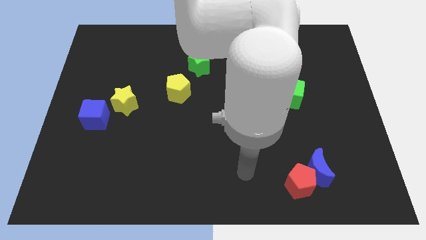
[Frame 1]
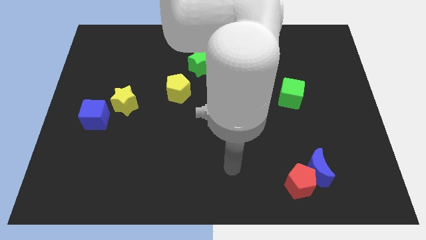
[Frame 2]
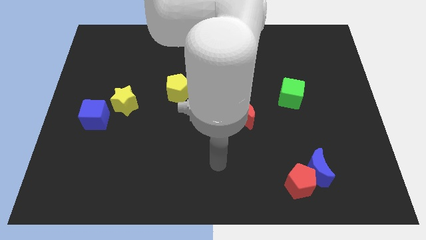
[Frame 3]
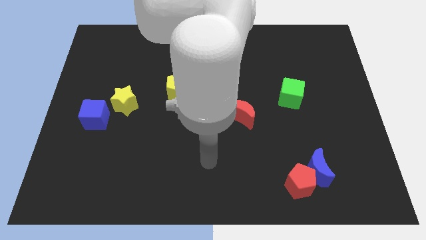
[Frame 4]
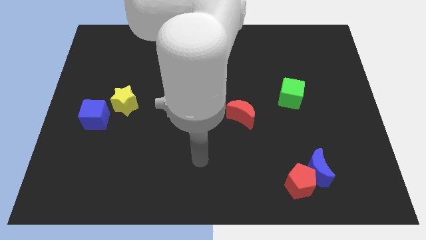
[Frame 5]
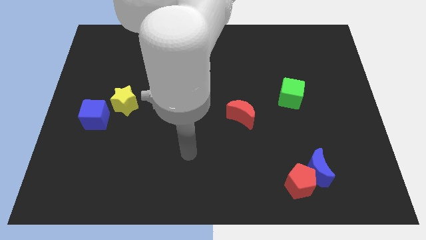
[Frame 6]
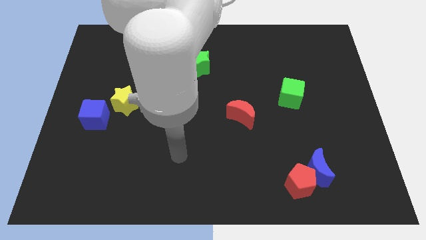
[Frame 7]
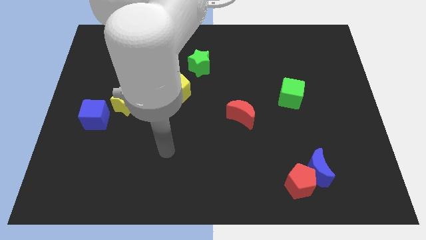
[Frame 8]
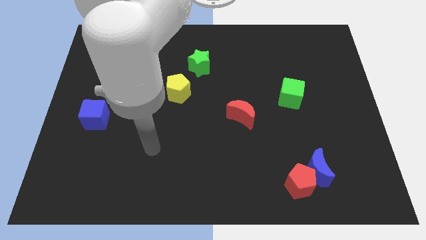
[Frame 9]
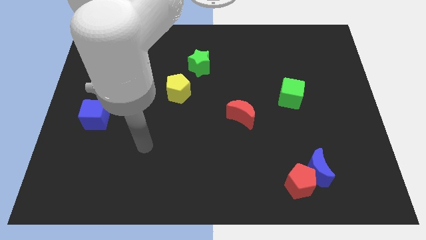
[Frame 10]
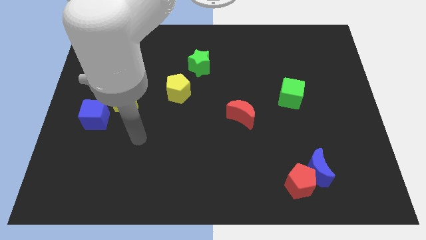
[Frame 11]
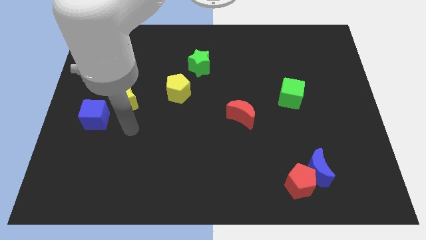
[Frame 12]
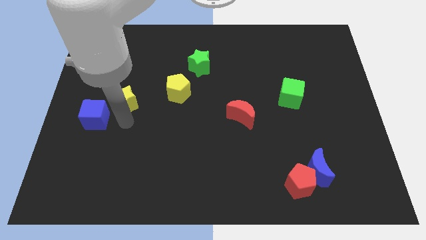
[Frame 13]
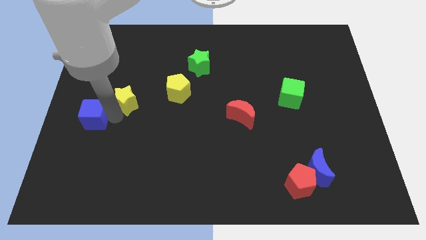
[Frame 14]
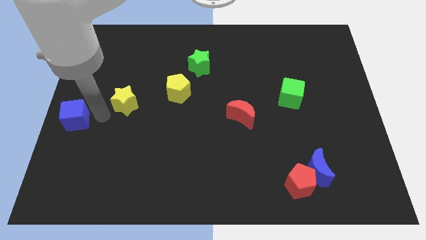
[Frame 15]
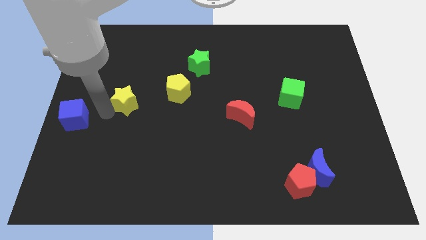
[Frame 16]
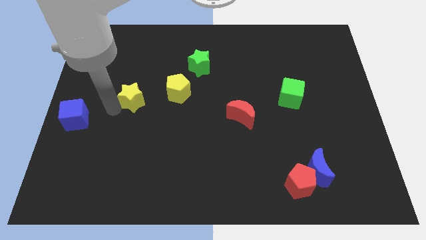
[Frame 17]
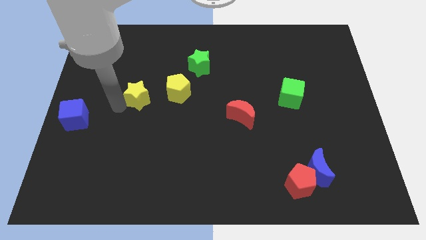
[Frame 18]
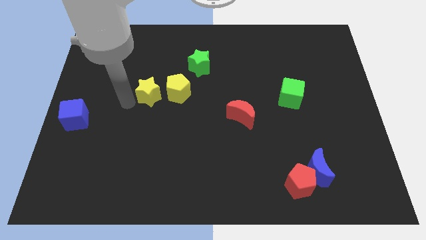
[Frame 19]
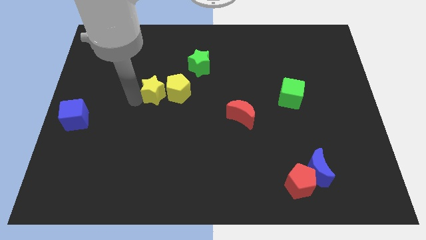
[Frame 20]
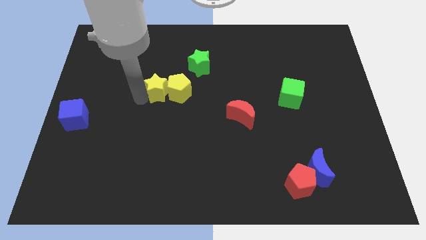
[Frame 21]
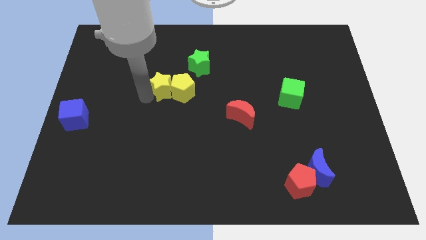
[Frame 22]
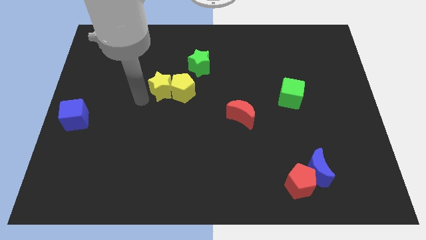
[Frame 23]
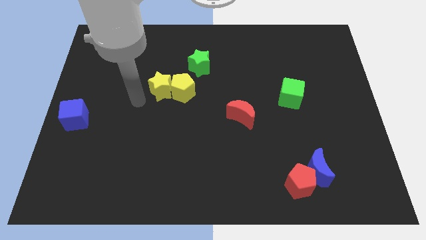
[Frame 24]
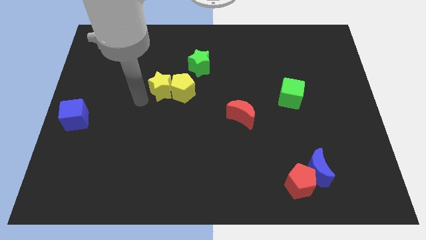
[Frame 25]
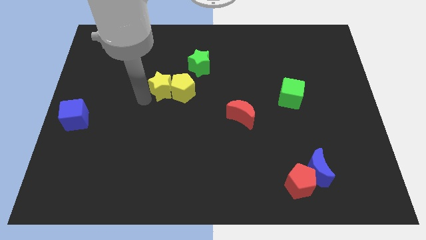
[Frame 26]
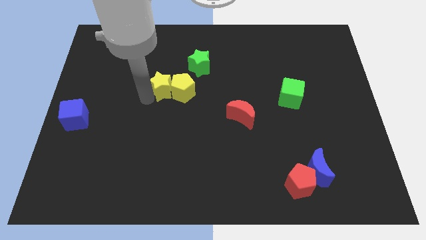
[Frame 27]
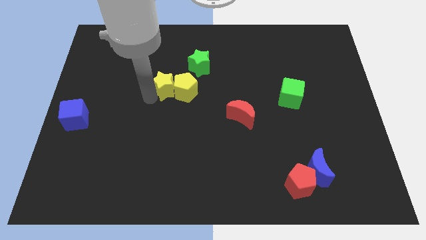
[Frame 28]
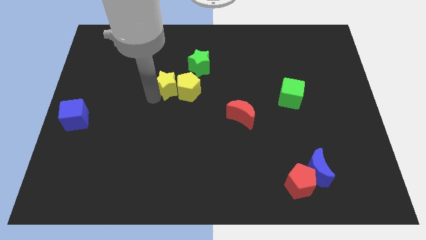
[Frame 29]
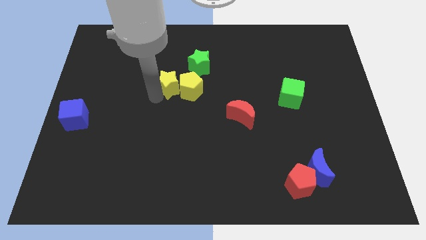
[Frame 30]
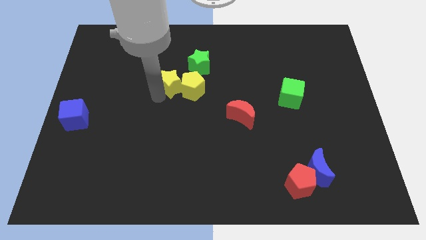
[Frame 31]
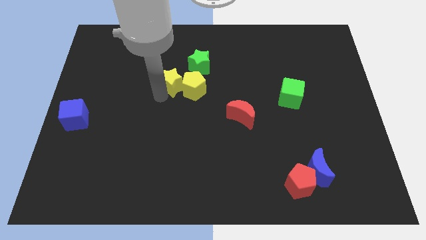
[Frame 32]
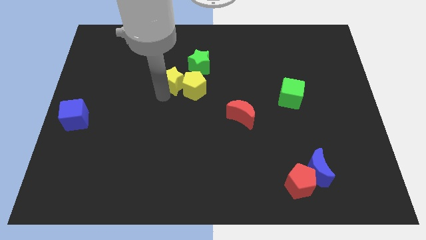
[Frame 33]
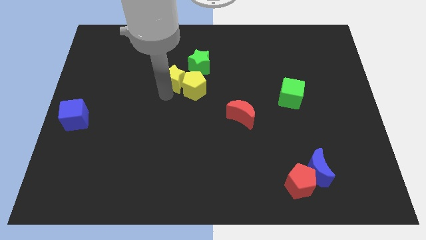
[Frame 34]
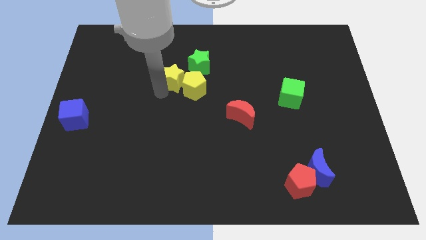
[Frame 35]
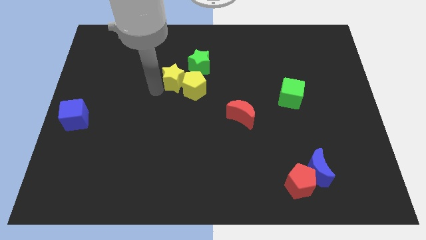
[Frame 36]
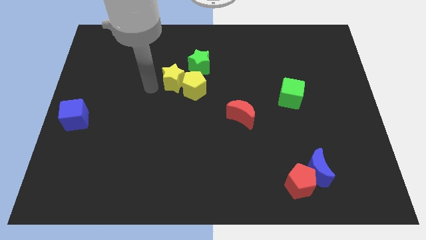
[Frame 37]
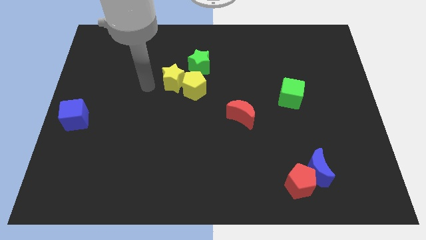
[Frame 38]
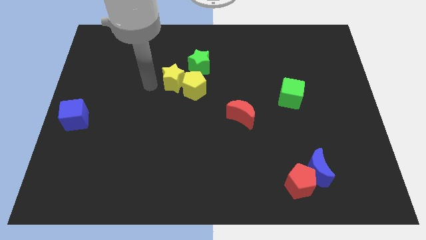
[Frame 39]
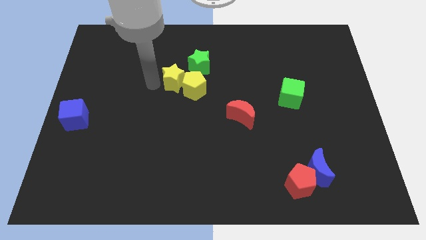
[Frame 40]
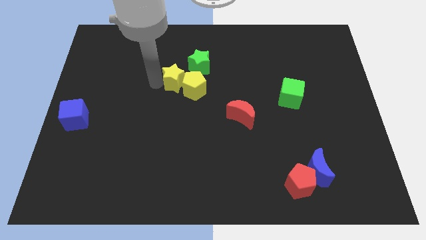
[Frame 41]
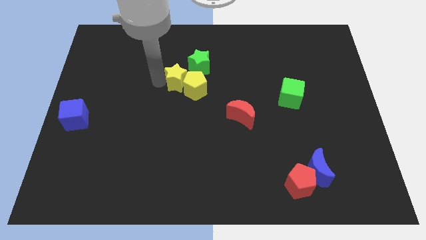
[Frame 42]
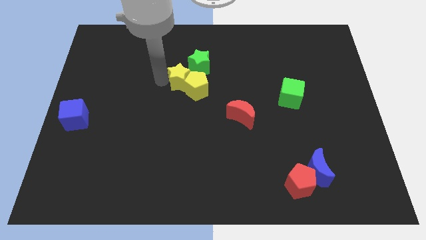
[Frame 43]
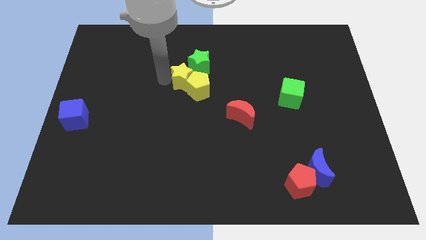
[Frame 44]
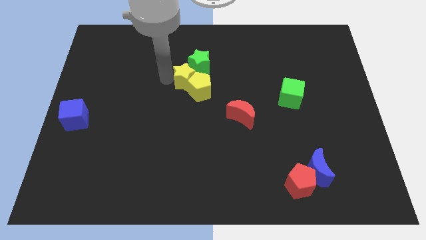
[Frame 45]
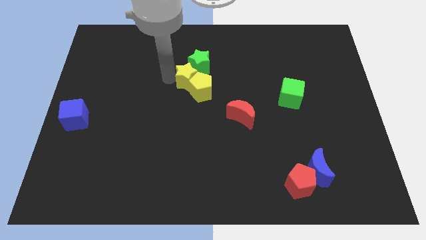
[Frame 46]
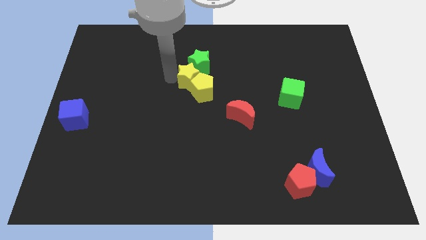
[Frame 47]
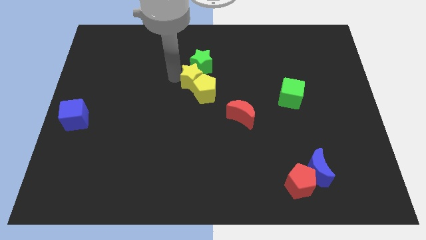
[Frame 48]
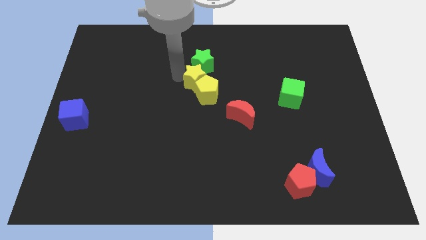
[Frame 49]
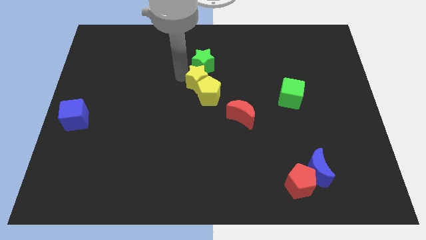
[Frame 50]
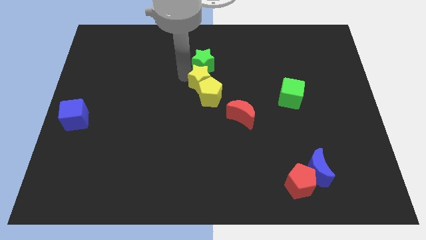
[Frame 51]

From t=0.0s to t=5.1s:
slide the yellow star diagonally down and to the right of the green star

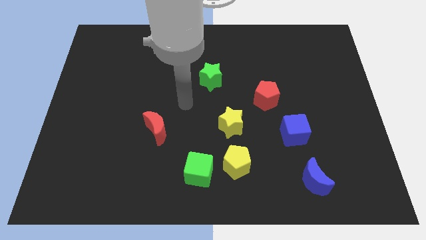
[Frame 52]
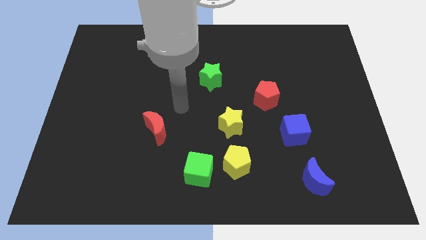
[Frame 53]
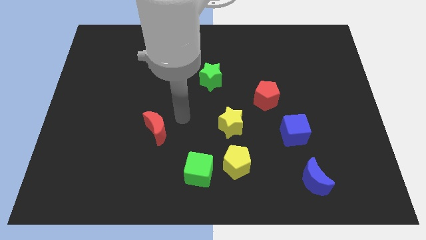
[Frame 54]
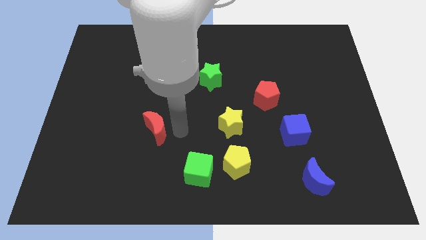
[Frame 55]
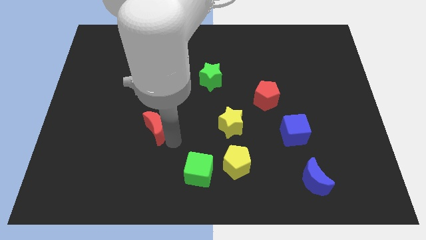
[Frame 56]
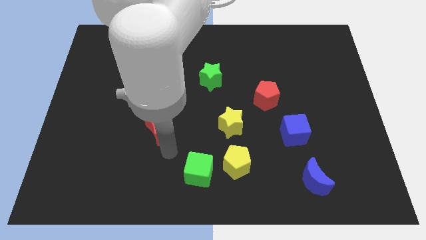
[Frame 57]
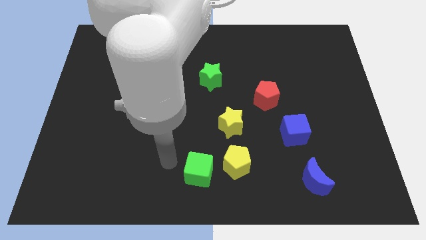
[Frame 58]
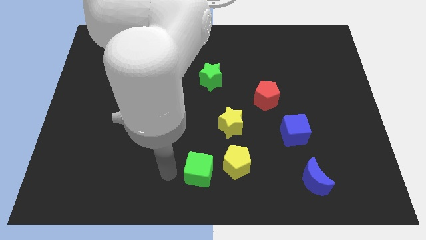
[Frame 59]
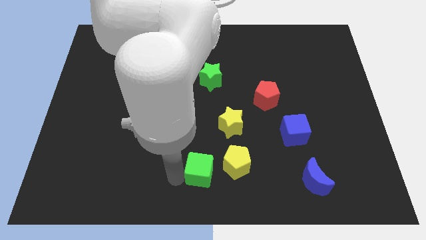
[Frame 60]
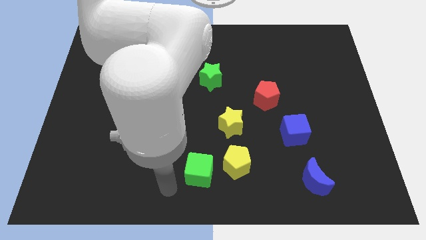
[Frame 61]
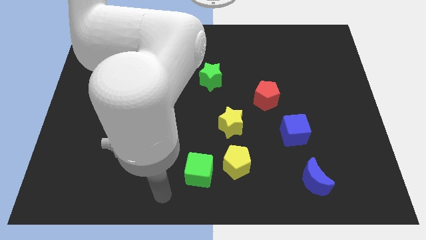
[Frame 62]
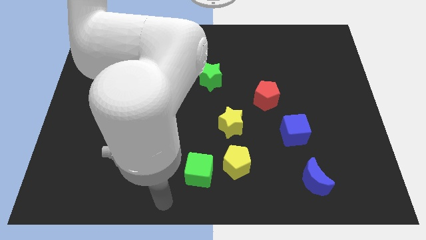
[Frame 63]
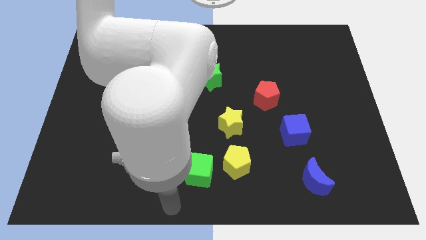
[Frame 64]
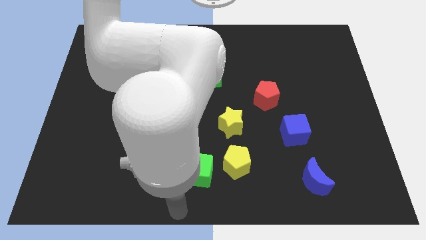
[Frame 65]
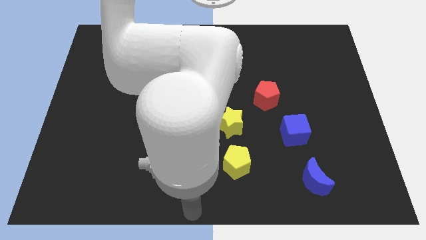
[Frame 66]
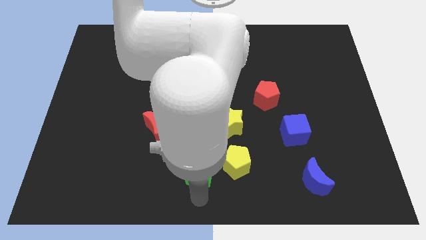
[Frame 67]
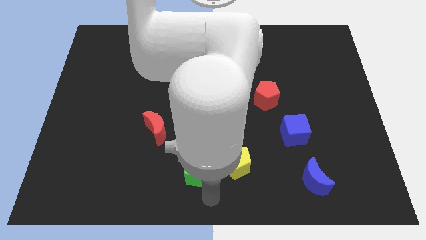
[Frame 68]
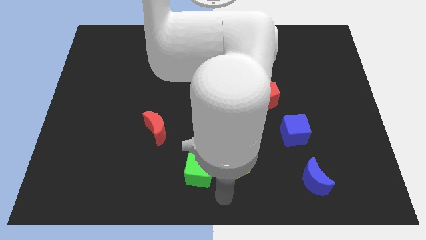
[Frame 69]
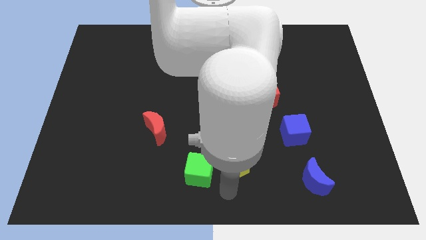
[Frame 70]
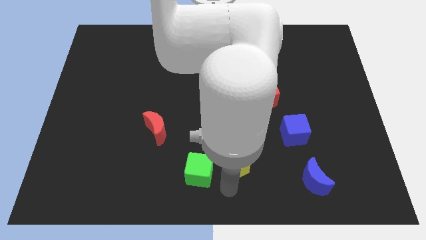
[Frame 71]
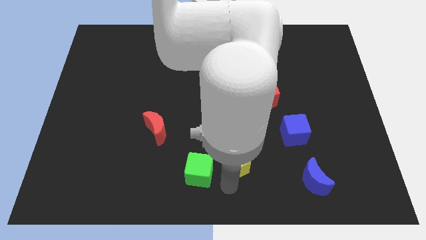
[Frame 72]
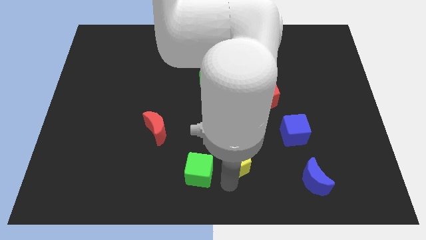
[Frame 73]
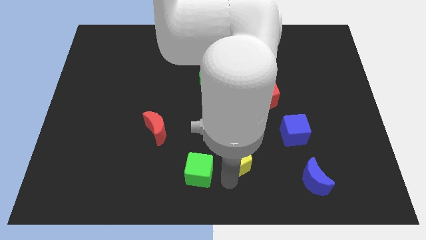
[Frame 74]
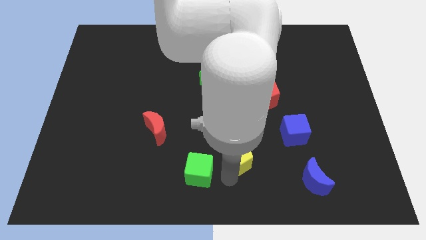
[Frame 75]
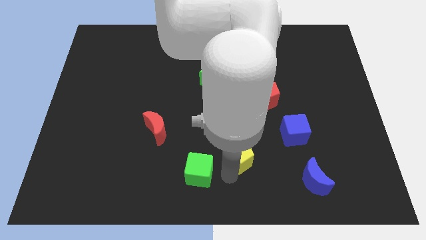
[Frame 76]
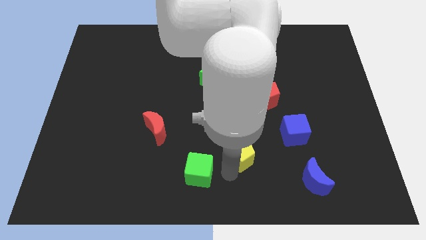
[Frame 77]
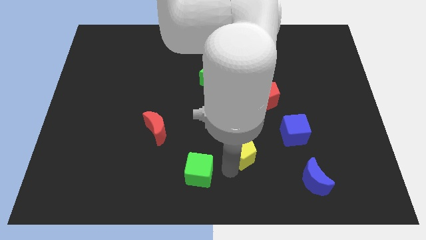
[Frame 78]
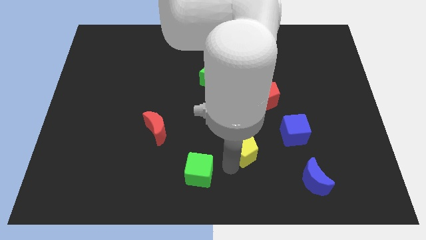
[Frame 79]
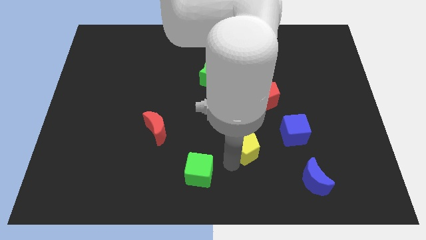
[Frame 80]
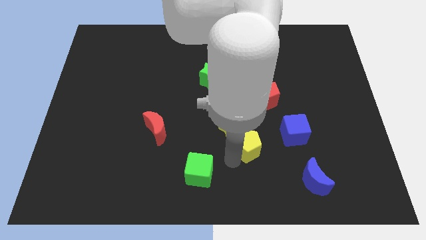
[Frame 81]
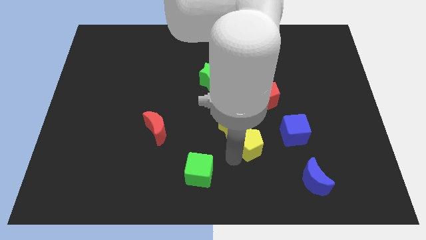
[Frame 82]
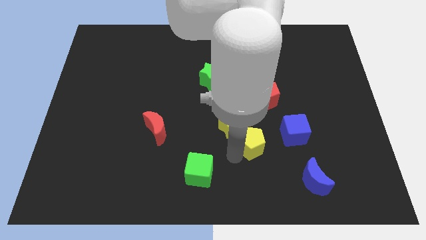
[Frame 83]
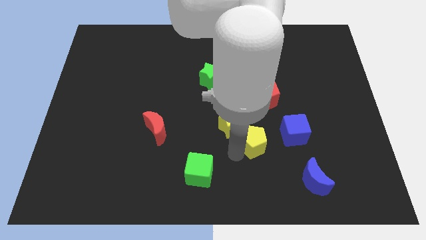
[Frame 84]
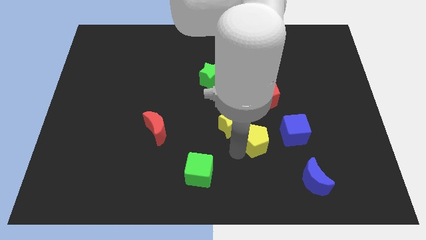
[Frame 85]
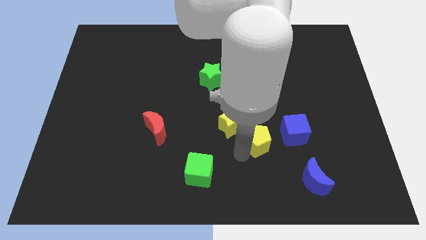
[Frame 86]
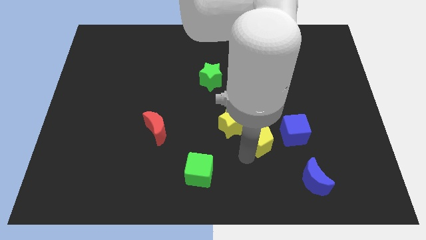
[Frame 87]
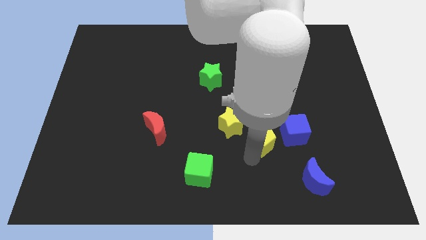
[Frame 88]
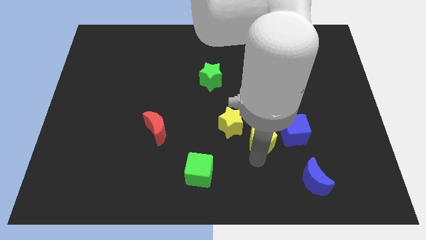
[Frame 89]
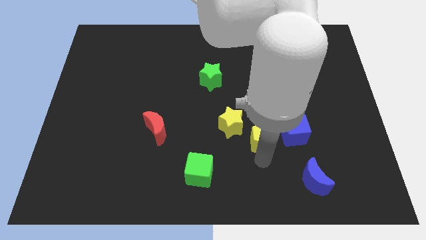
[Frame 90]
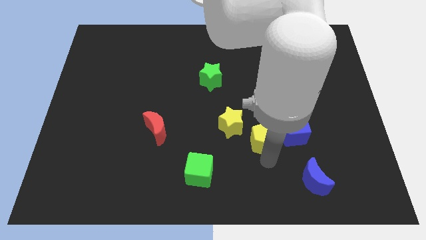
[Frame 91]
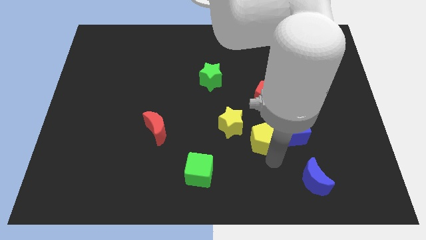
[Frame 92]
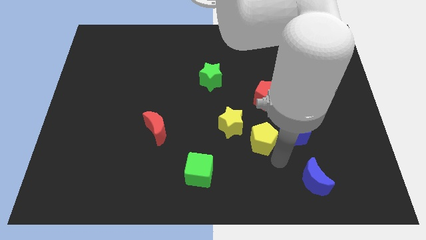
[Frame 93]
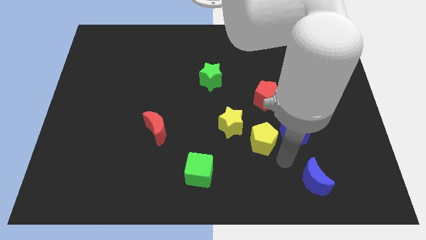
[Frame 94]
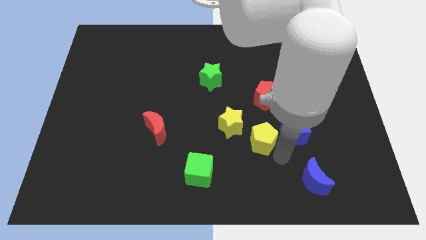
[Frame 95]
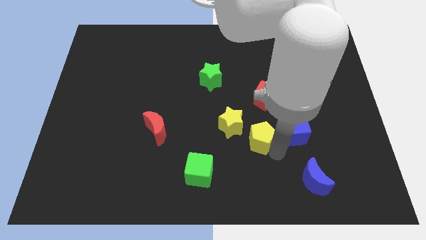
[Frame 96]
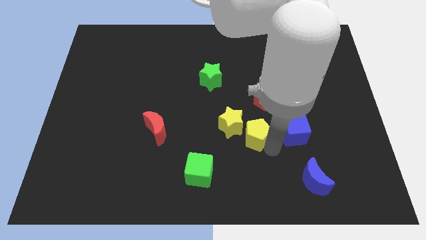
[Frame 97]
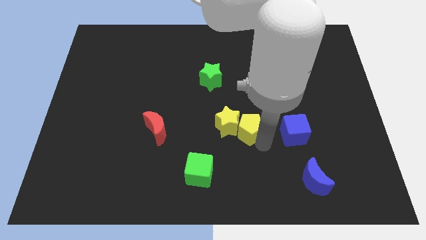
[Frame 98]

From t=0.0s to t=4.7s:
slide the yellow pentagon diagonally up and to the right of the yellow star
